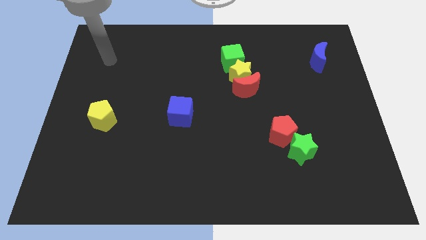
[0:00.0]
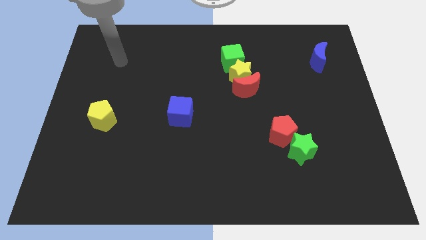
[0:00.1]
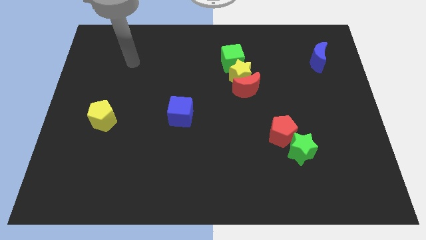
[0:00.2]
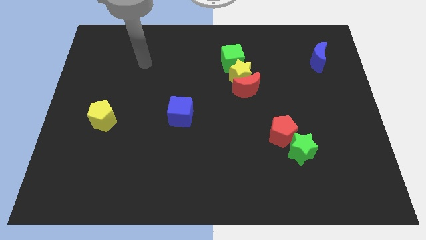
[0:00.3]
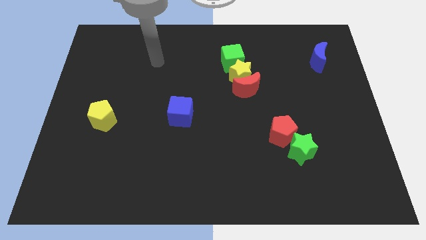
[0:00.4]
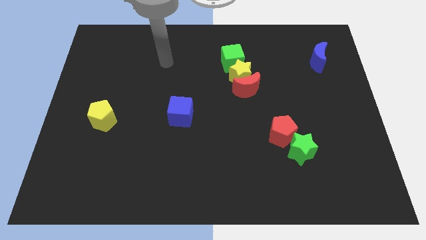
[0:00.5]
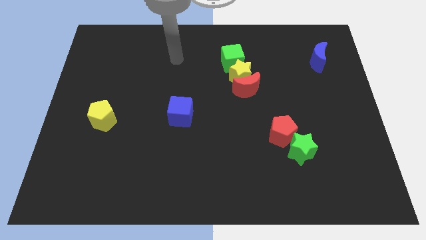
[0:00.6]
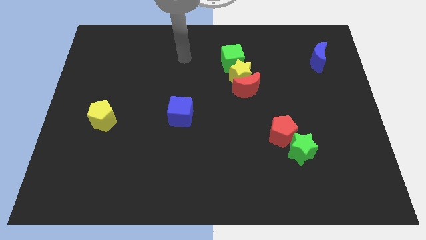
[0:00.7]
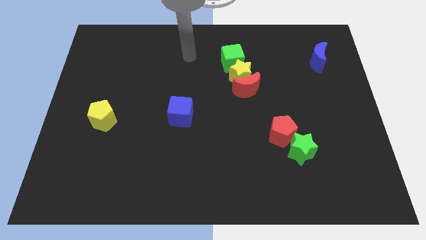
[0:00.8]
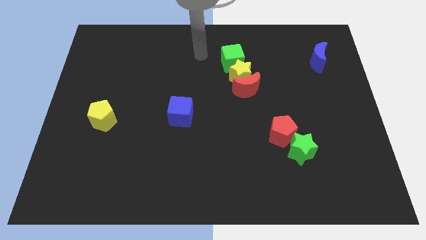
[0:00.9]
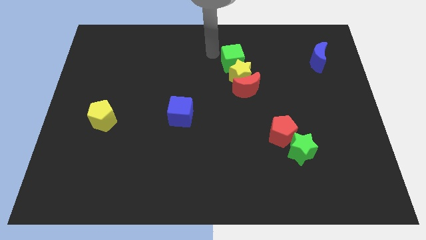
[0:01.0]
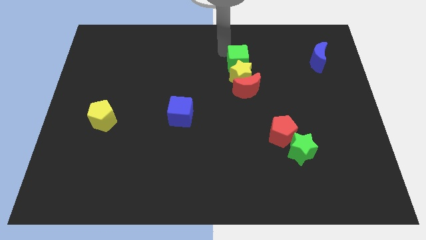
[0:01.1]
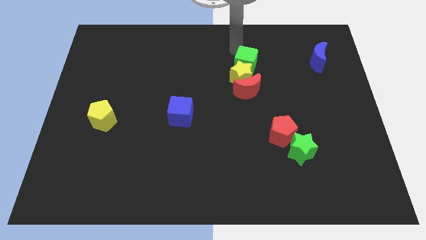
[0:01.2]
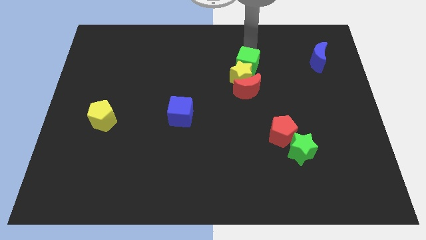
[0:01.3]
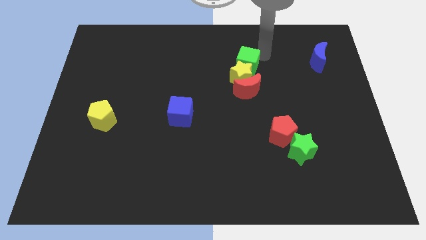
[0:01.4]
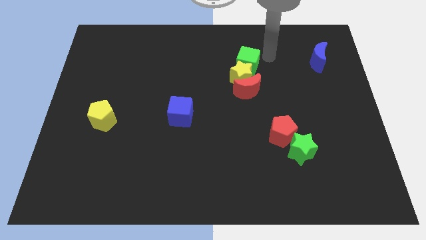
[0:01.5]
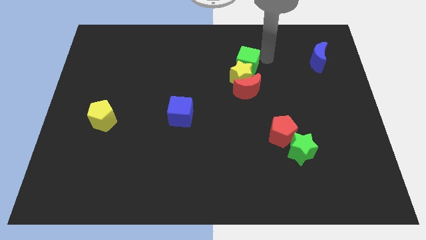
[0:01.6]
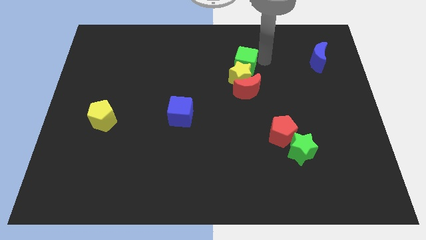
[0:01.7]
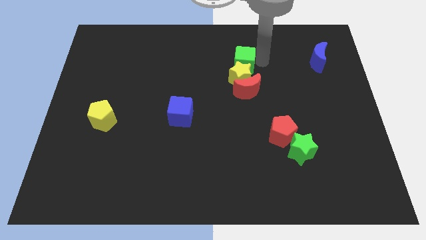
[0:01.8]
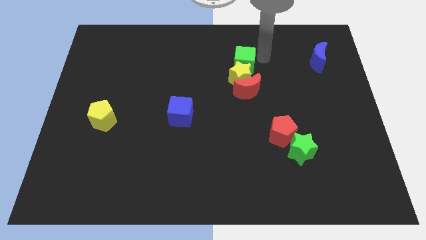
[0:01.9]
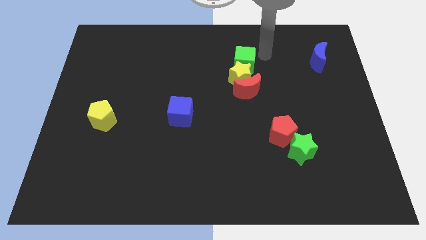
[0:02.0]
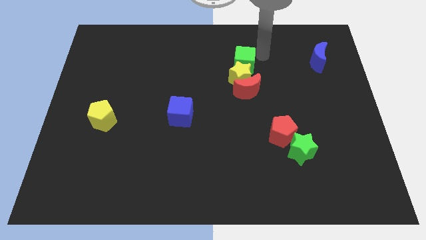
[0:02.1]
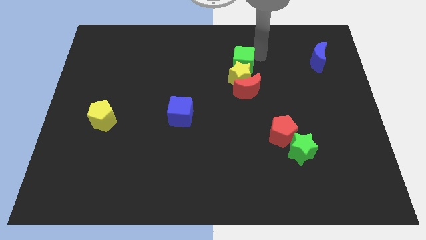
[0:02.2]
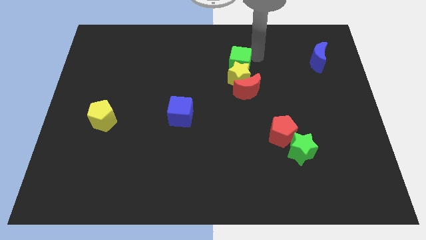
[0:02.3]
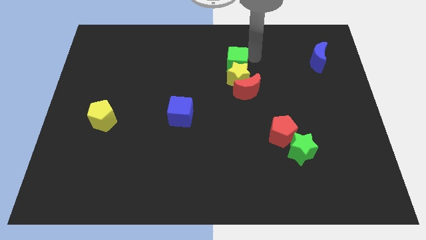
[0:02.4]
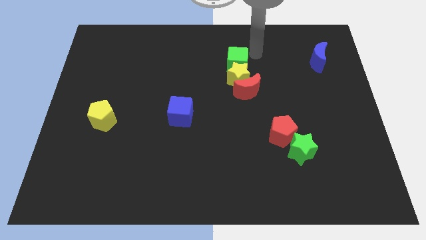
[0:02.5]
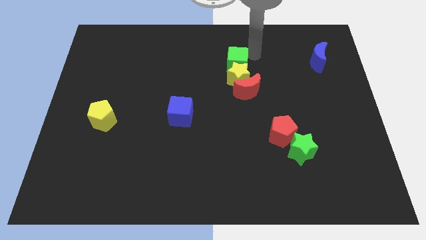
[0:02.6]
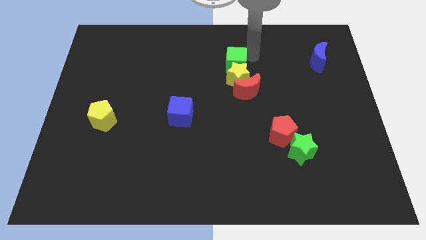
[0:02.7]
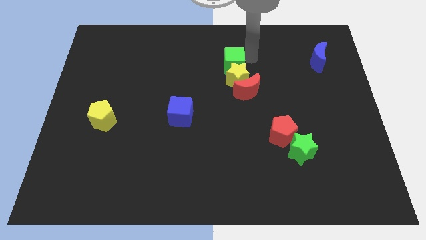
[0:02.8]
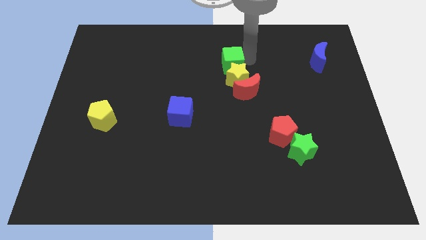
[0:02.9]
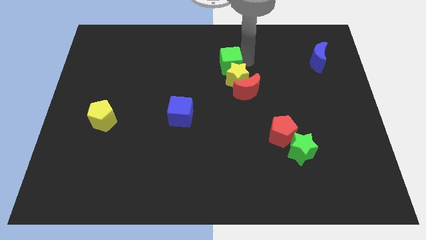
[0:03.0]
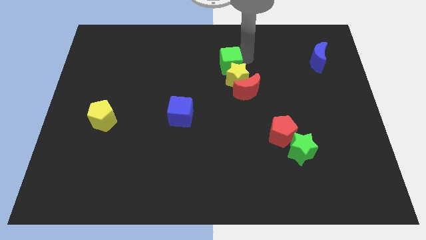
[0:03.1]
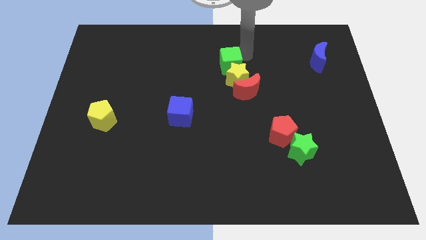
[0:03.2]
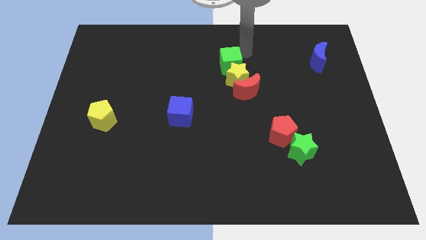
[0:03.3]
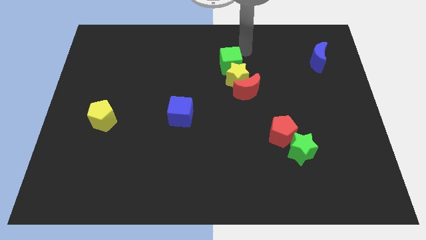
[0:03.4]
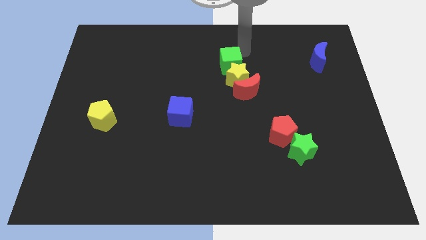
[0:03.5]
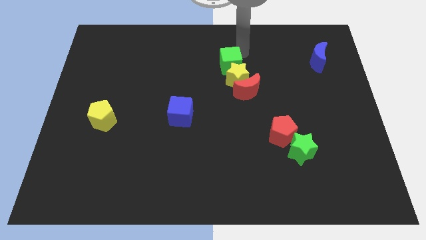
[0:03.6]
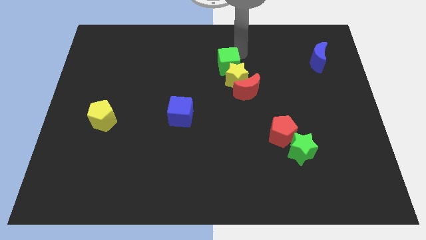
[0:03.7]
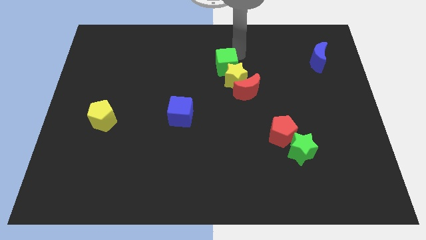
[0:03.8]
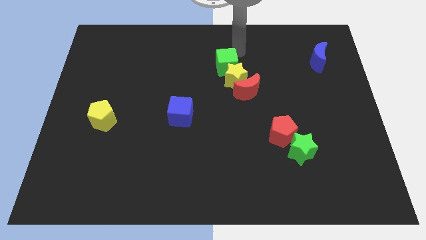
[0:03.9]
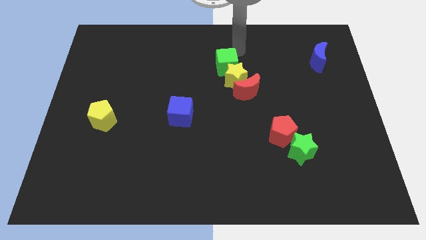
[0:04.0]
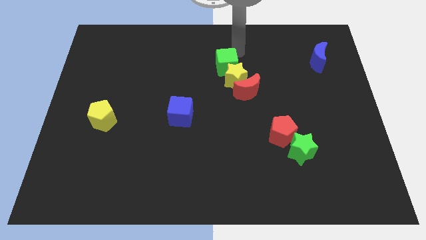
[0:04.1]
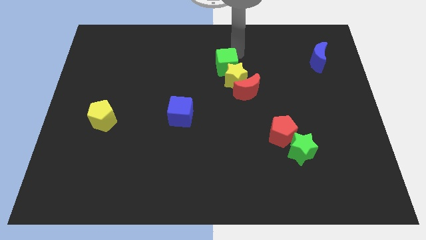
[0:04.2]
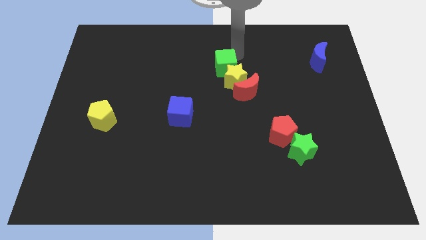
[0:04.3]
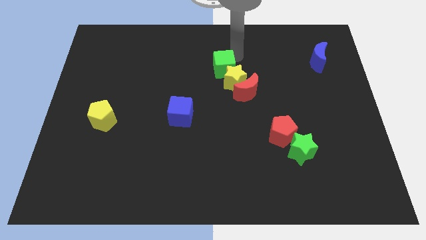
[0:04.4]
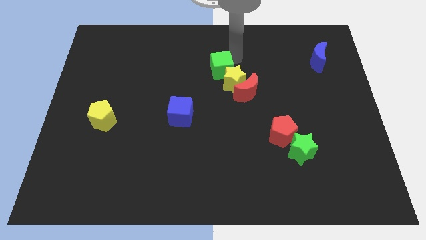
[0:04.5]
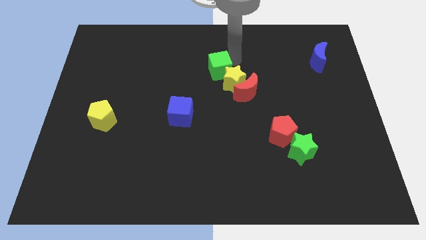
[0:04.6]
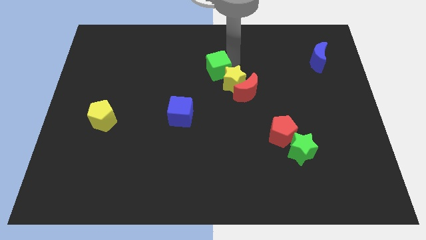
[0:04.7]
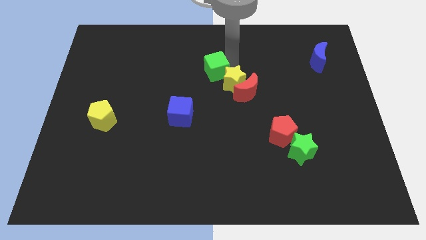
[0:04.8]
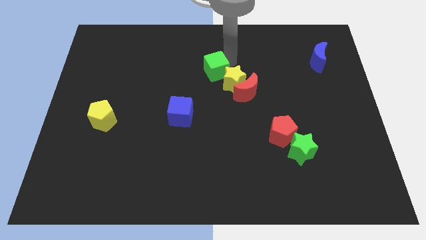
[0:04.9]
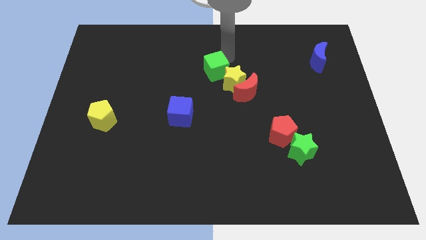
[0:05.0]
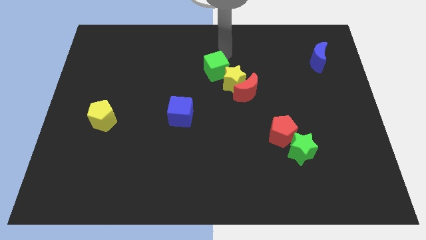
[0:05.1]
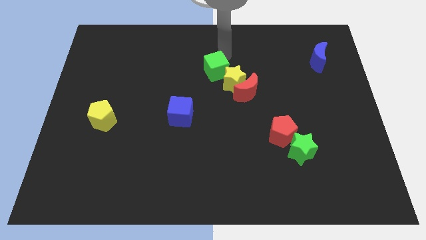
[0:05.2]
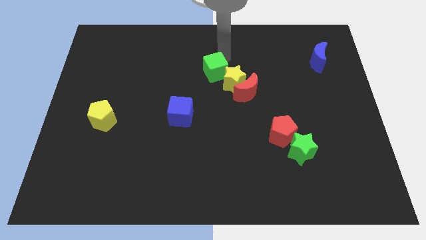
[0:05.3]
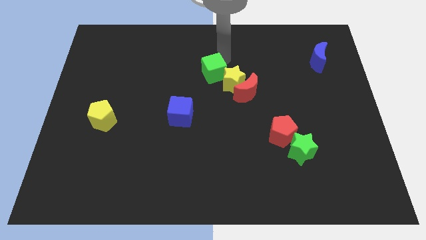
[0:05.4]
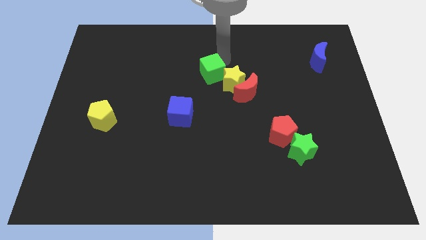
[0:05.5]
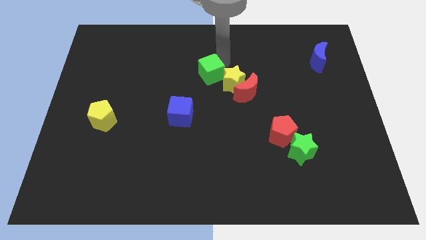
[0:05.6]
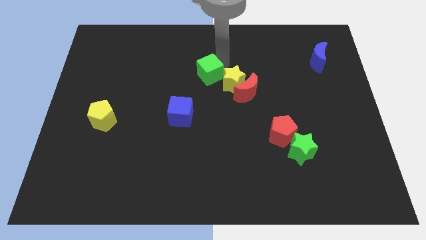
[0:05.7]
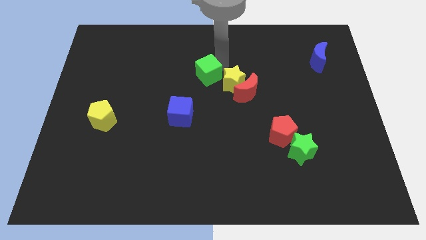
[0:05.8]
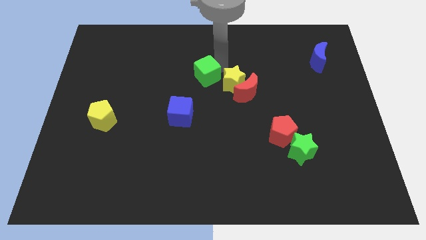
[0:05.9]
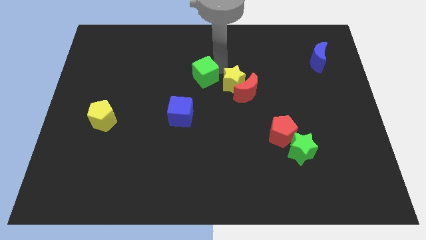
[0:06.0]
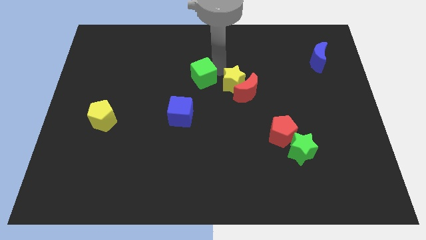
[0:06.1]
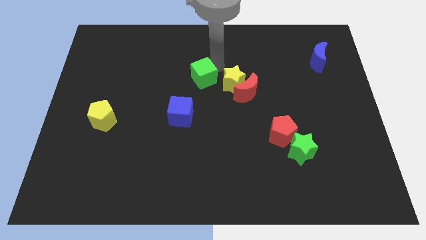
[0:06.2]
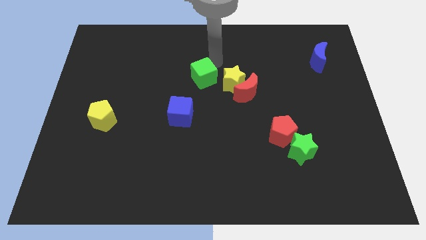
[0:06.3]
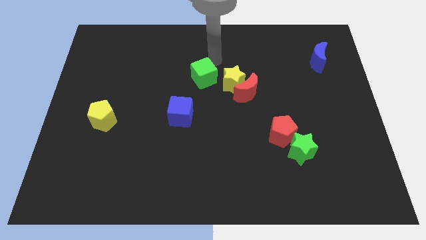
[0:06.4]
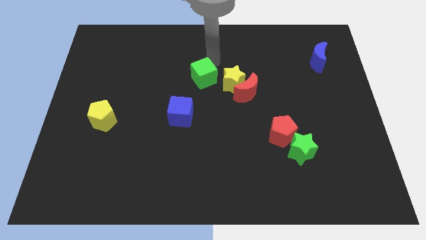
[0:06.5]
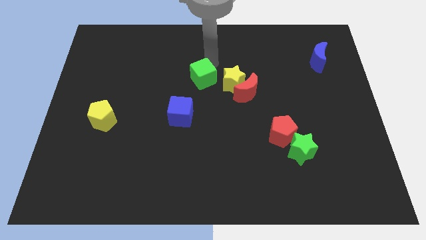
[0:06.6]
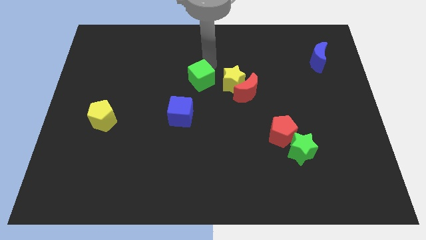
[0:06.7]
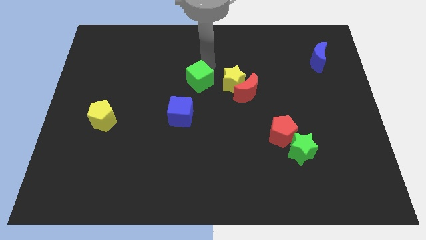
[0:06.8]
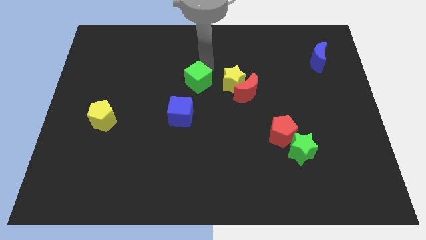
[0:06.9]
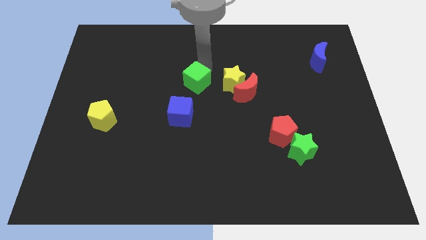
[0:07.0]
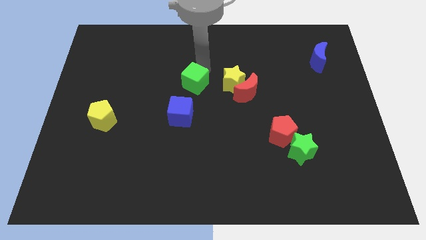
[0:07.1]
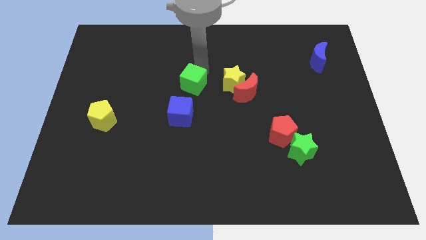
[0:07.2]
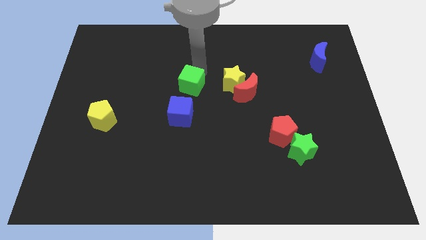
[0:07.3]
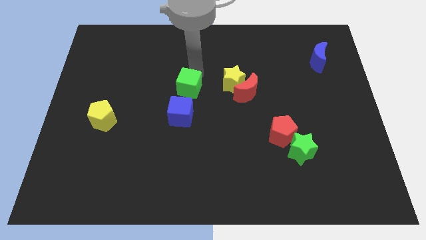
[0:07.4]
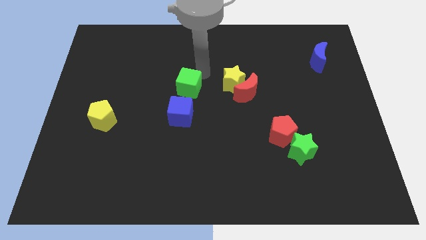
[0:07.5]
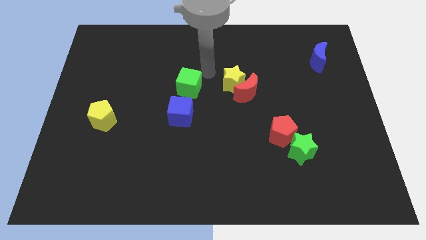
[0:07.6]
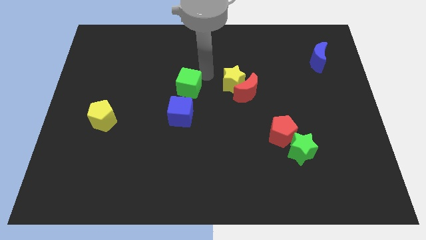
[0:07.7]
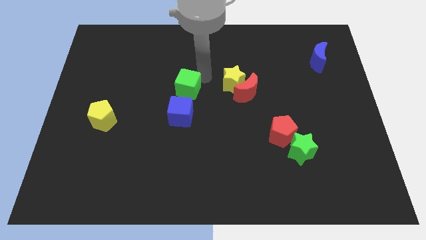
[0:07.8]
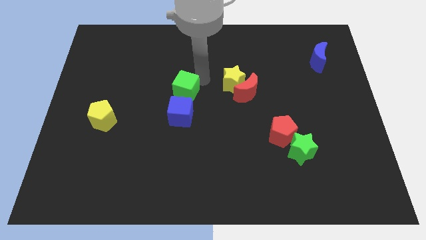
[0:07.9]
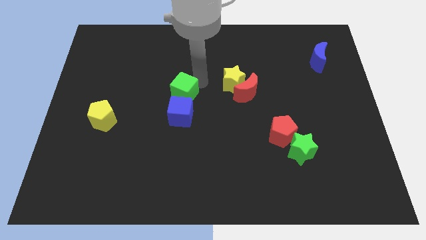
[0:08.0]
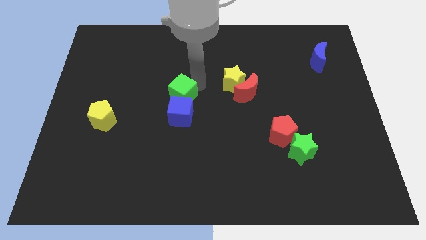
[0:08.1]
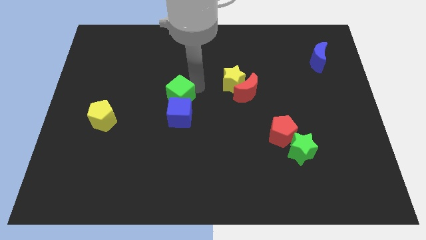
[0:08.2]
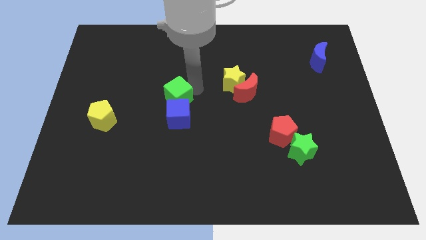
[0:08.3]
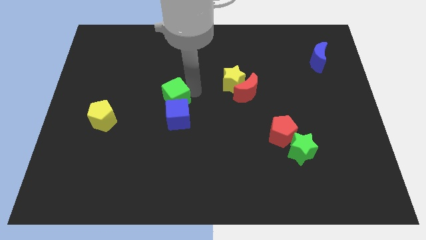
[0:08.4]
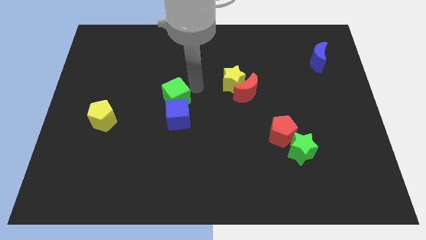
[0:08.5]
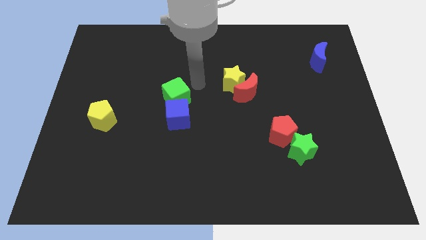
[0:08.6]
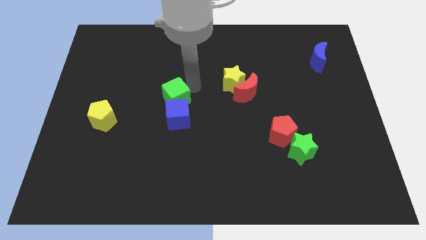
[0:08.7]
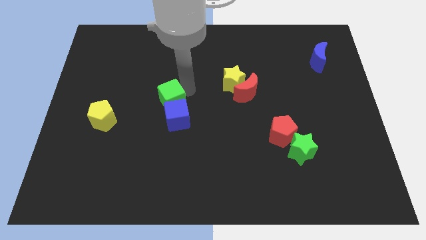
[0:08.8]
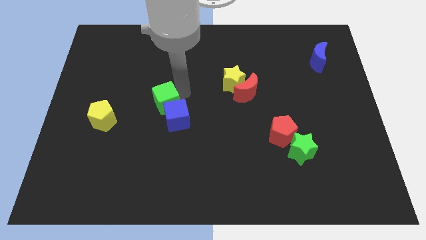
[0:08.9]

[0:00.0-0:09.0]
push the green cube downwards and then left
